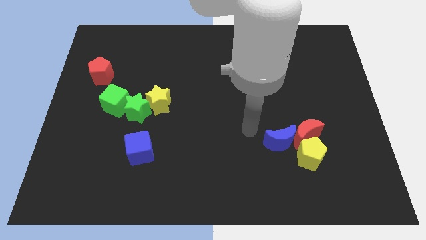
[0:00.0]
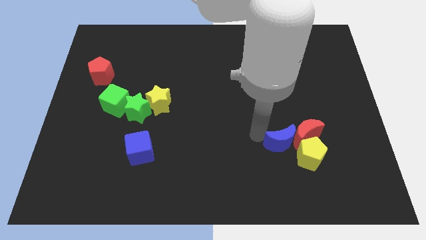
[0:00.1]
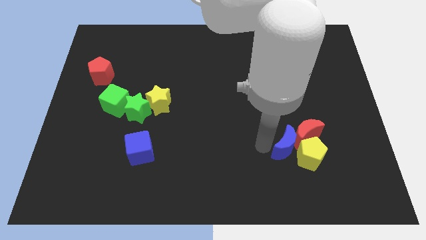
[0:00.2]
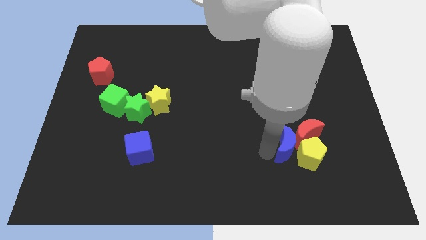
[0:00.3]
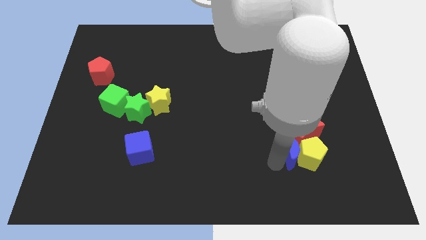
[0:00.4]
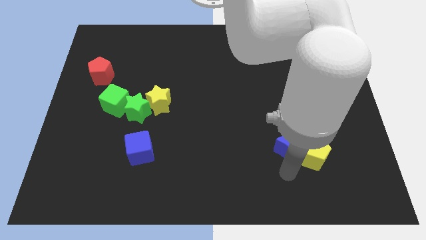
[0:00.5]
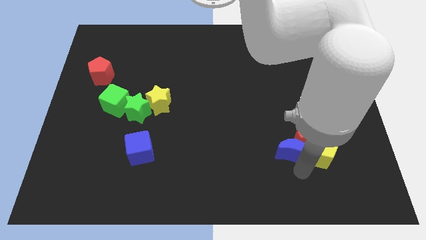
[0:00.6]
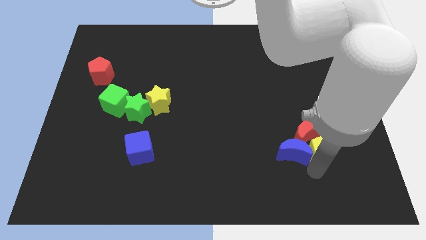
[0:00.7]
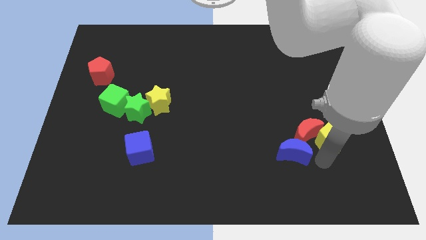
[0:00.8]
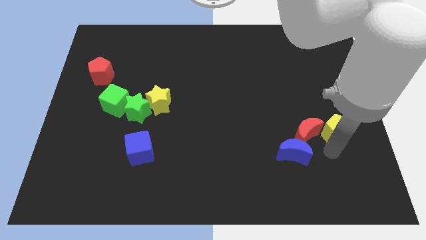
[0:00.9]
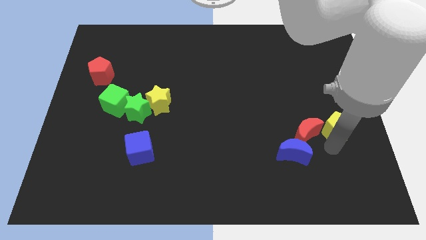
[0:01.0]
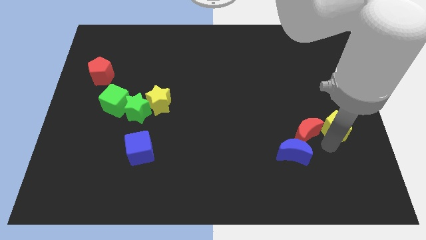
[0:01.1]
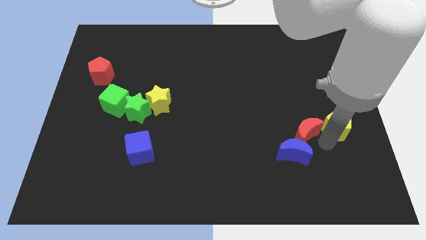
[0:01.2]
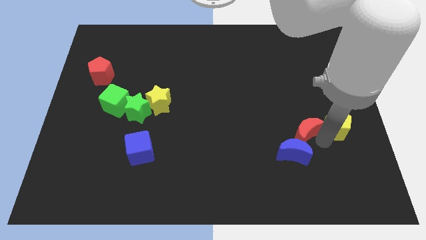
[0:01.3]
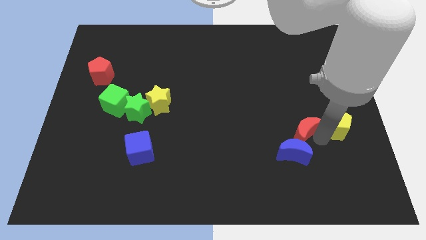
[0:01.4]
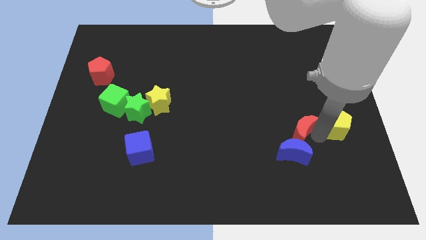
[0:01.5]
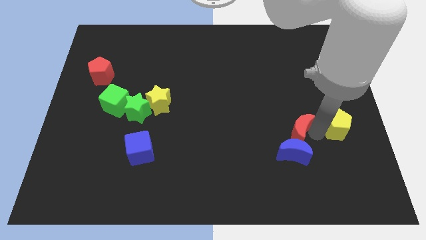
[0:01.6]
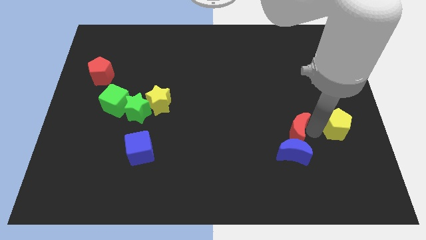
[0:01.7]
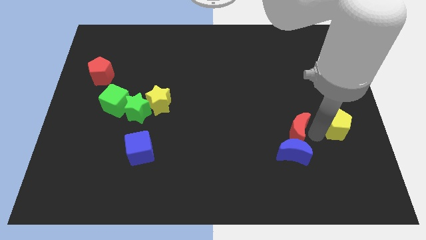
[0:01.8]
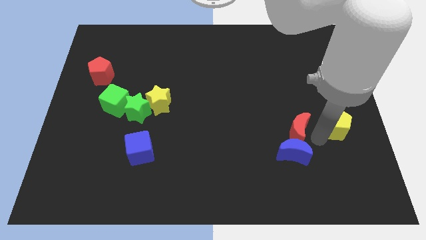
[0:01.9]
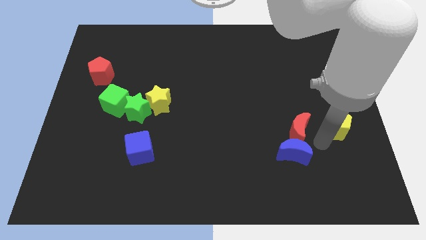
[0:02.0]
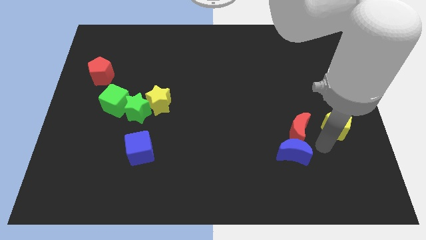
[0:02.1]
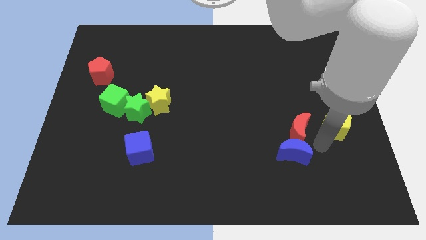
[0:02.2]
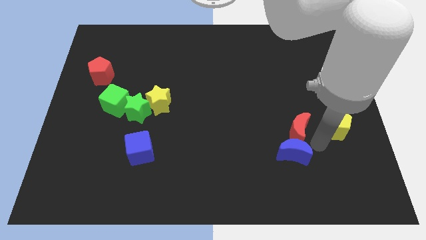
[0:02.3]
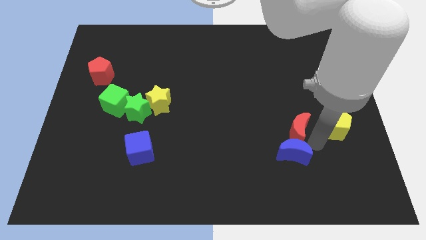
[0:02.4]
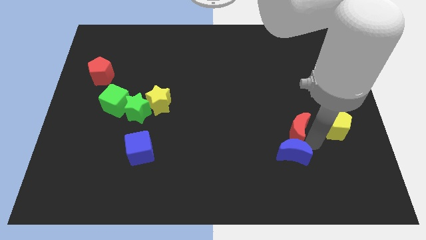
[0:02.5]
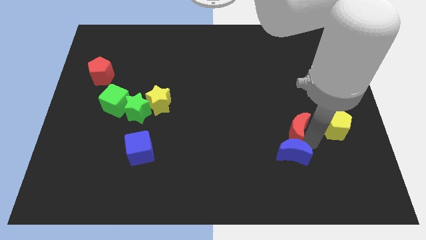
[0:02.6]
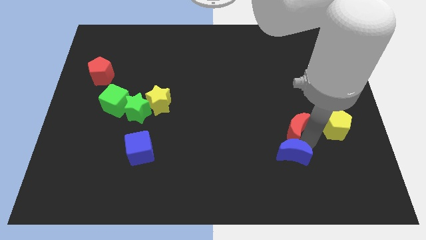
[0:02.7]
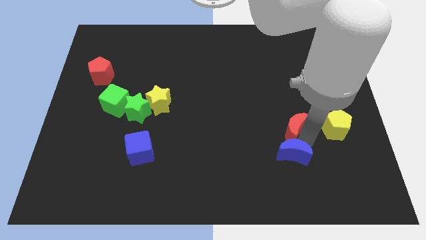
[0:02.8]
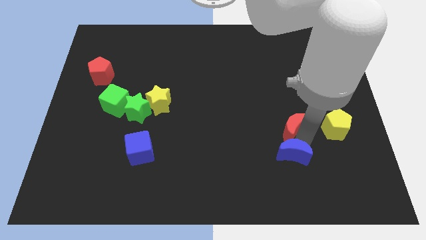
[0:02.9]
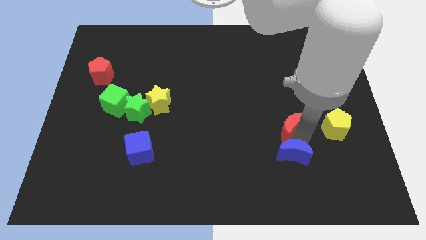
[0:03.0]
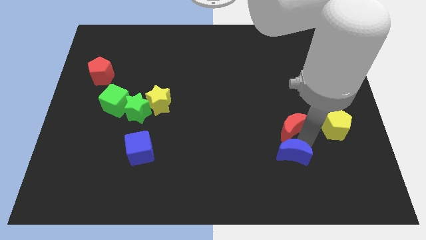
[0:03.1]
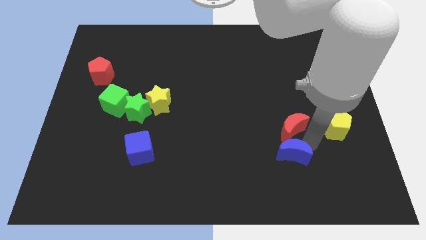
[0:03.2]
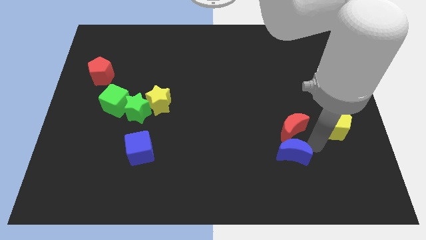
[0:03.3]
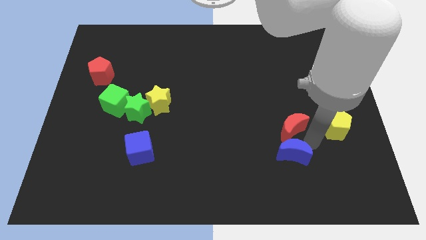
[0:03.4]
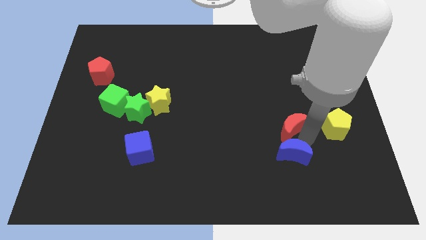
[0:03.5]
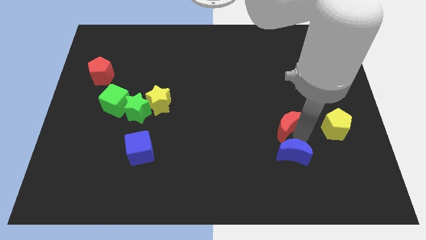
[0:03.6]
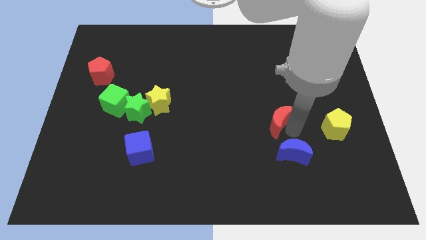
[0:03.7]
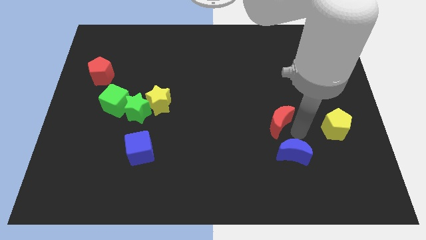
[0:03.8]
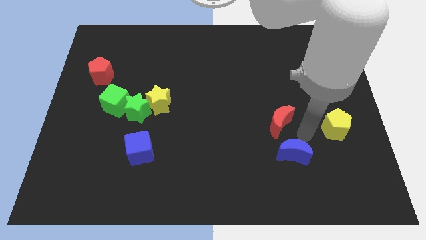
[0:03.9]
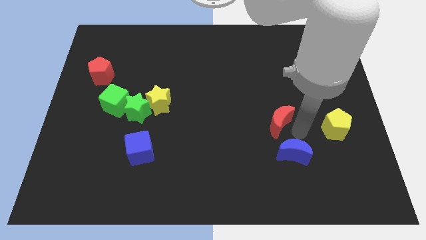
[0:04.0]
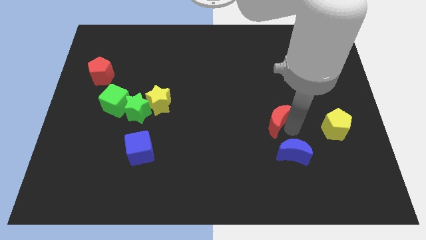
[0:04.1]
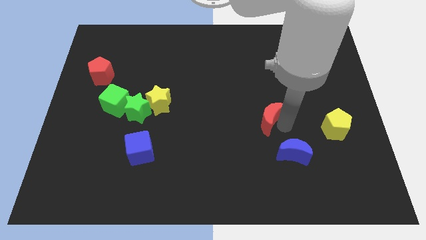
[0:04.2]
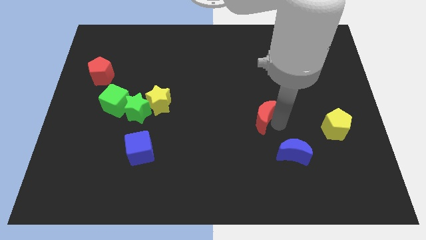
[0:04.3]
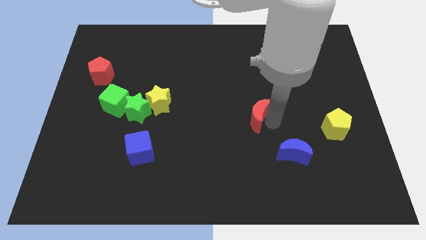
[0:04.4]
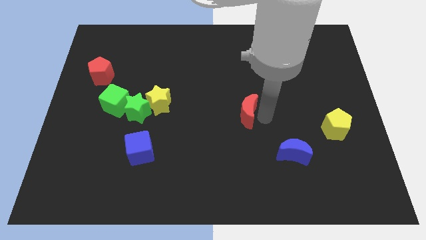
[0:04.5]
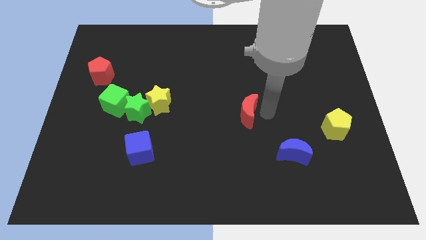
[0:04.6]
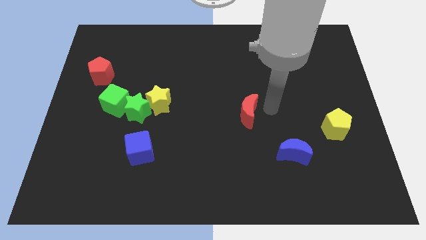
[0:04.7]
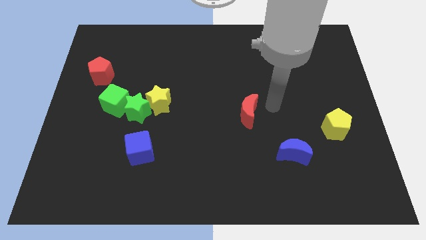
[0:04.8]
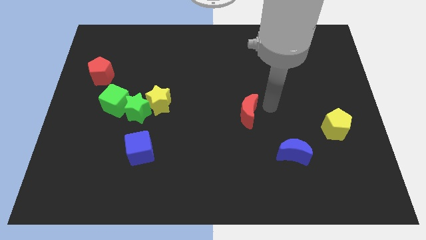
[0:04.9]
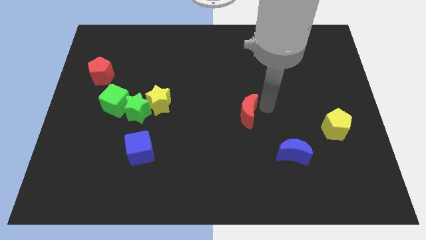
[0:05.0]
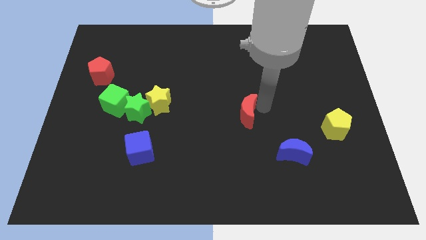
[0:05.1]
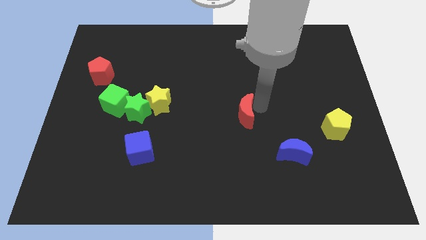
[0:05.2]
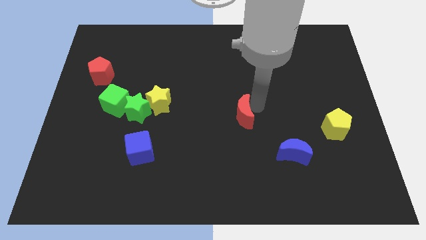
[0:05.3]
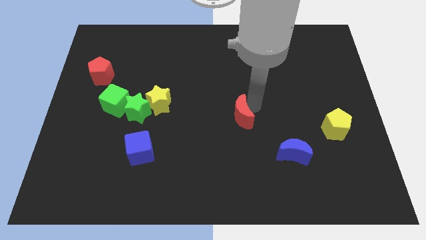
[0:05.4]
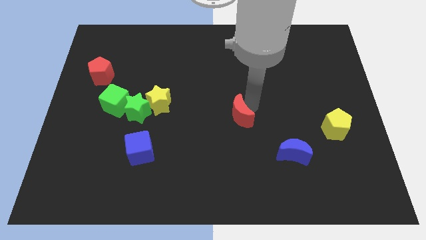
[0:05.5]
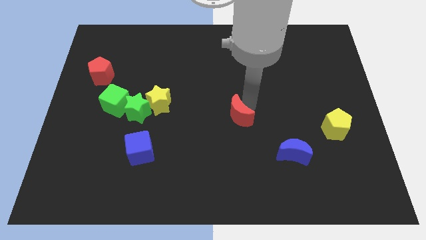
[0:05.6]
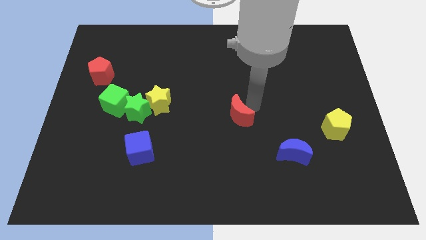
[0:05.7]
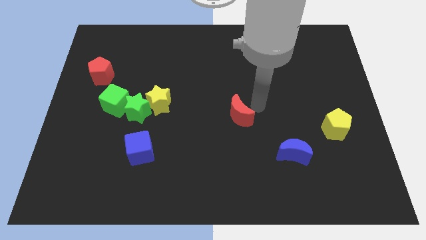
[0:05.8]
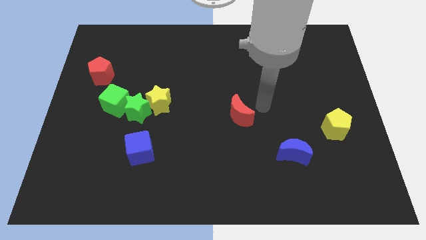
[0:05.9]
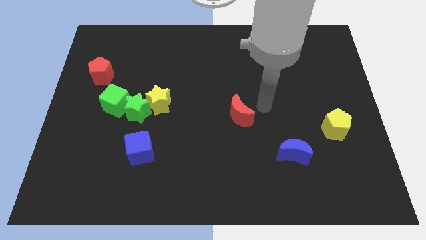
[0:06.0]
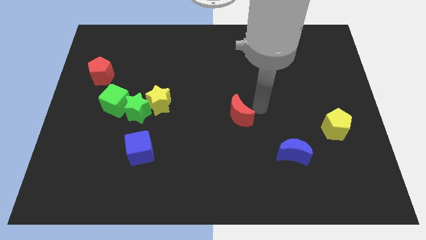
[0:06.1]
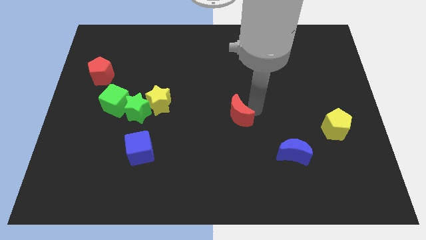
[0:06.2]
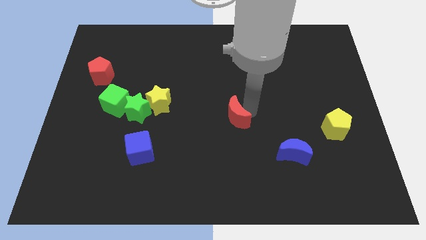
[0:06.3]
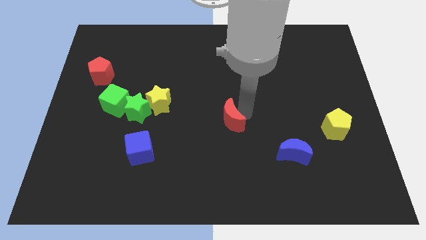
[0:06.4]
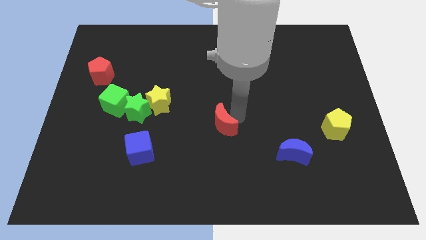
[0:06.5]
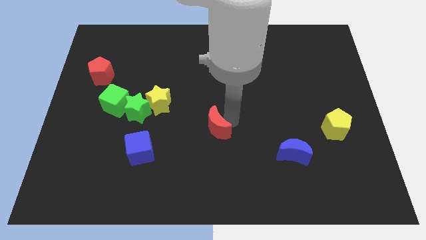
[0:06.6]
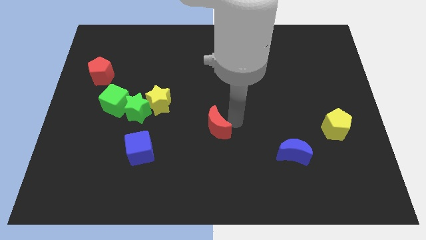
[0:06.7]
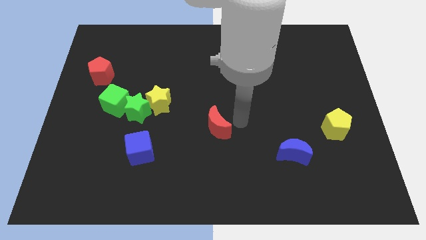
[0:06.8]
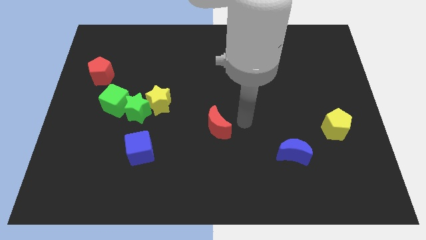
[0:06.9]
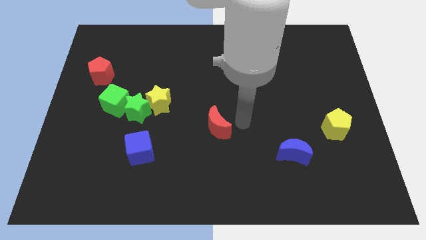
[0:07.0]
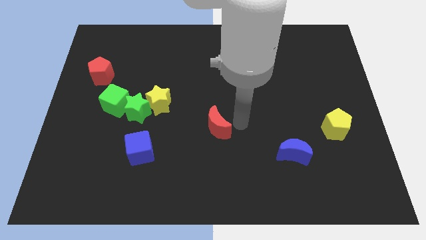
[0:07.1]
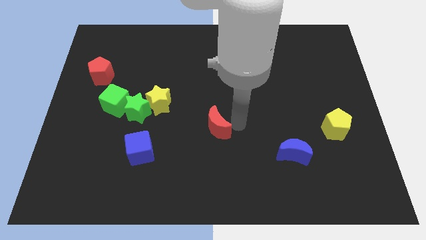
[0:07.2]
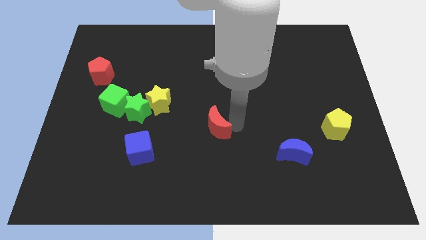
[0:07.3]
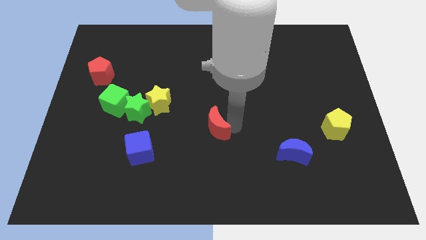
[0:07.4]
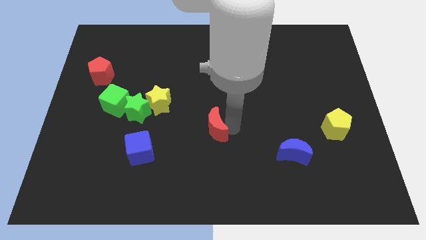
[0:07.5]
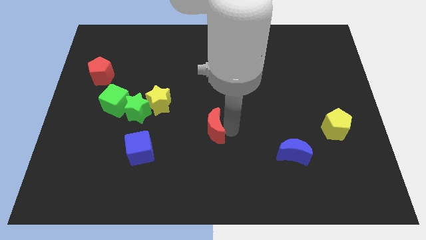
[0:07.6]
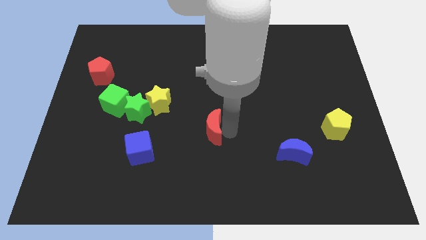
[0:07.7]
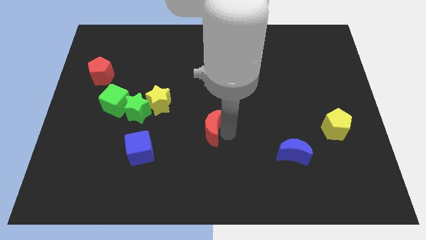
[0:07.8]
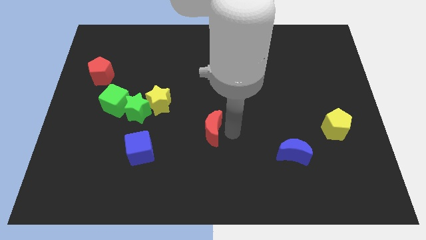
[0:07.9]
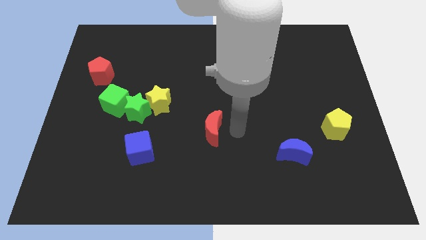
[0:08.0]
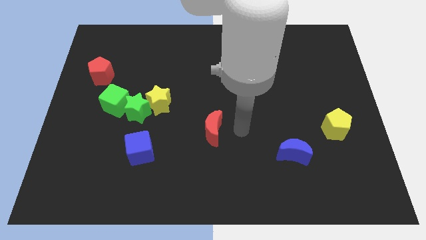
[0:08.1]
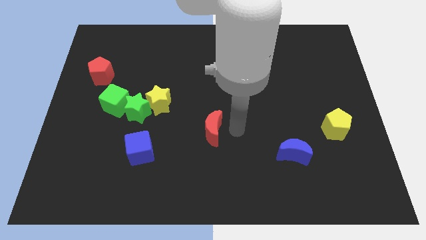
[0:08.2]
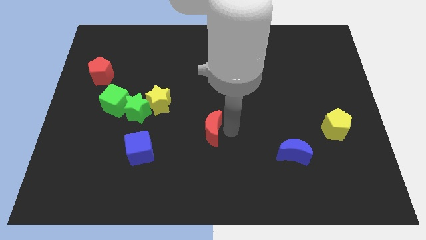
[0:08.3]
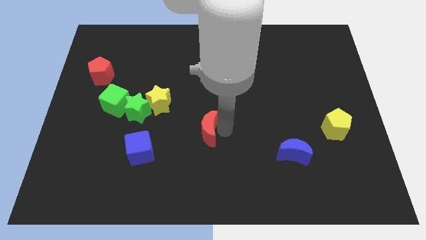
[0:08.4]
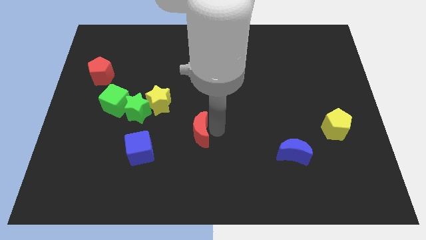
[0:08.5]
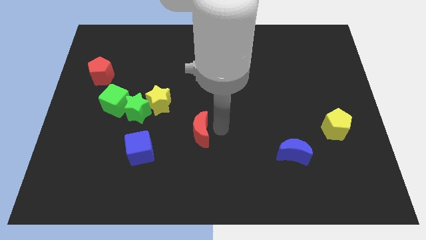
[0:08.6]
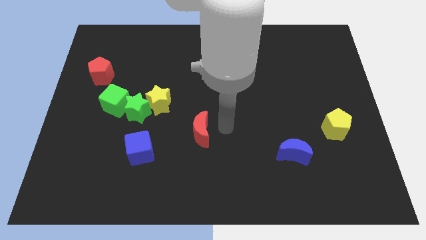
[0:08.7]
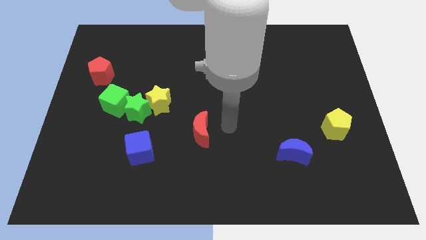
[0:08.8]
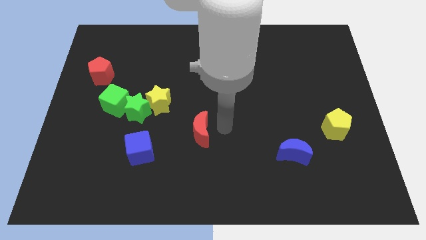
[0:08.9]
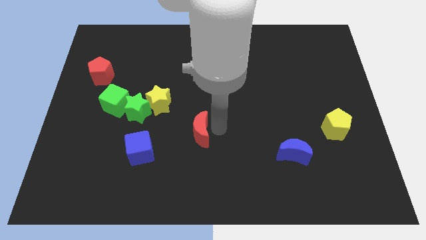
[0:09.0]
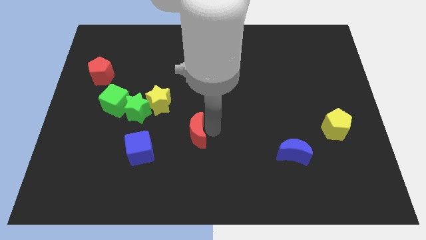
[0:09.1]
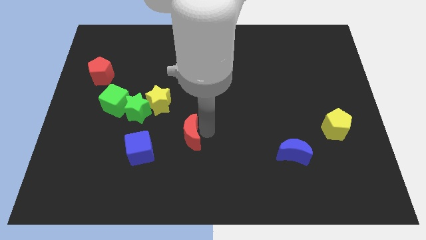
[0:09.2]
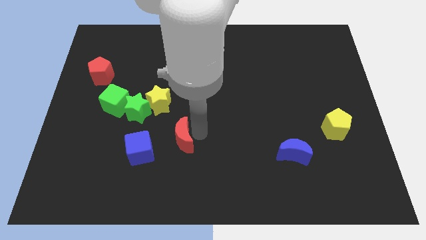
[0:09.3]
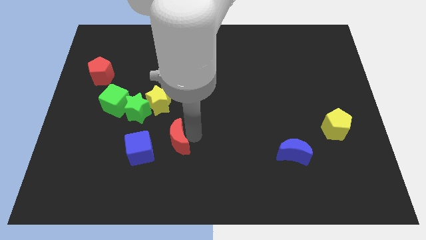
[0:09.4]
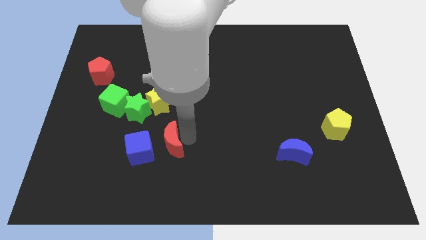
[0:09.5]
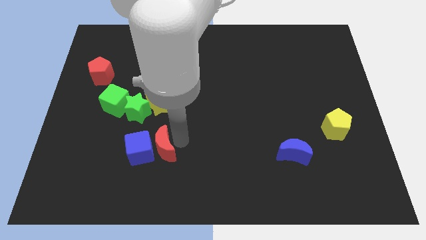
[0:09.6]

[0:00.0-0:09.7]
move the red moon next to the blue cube
